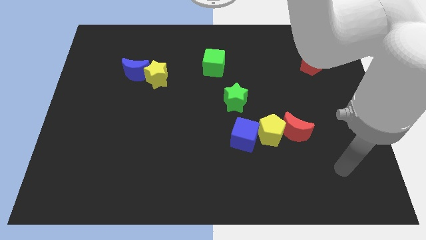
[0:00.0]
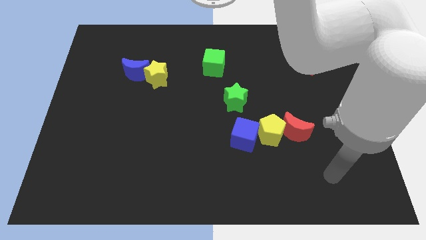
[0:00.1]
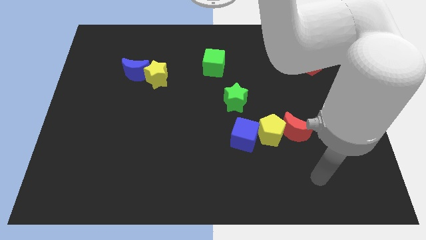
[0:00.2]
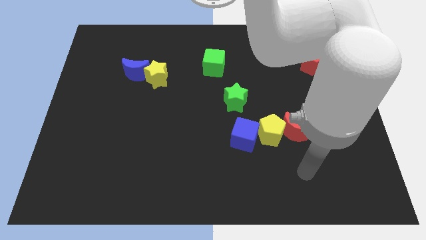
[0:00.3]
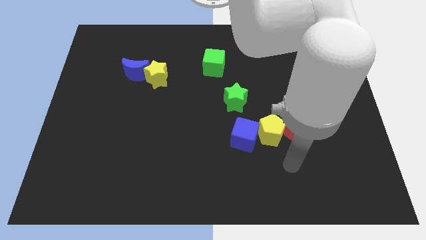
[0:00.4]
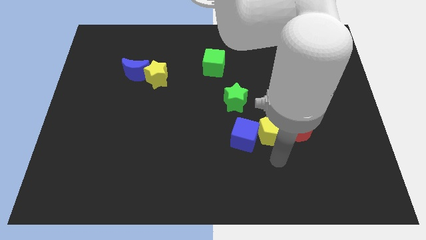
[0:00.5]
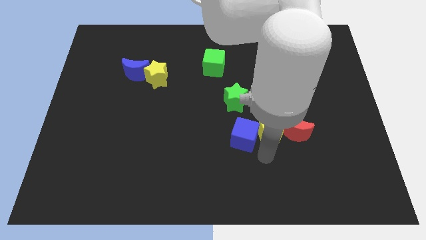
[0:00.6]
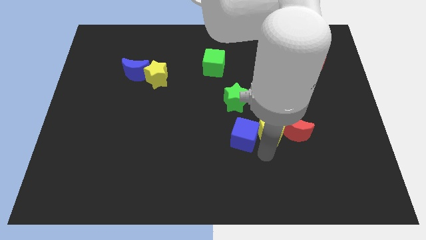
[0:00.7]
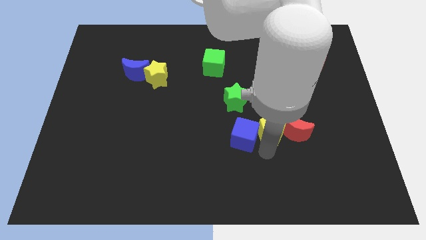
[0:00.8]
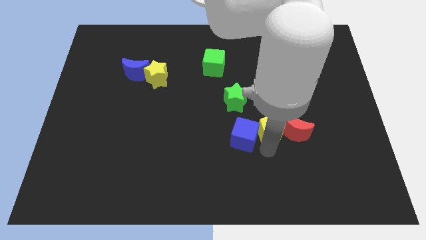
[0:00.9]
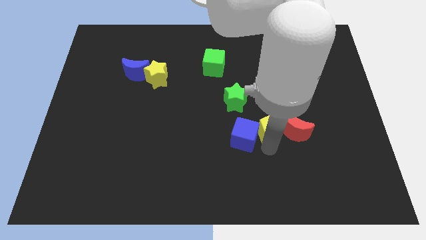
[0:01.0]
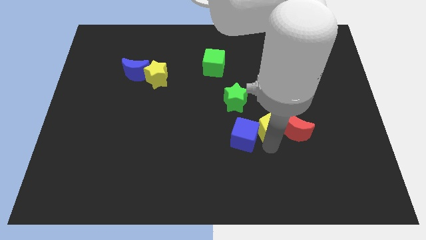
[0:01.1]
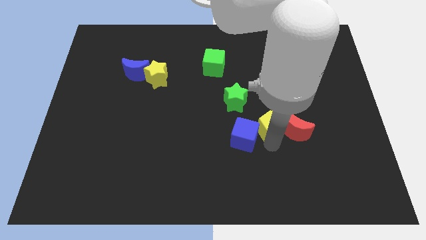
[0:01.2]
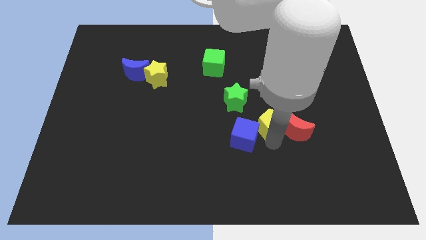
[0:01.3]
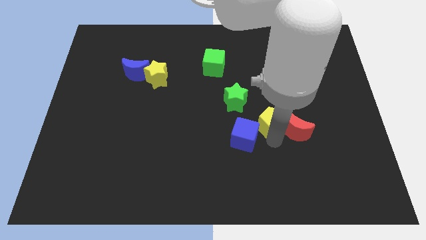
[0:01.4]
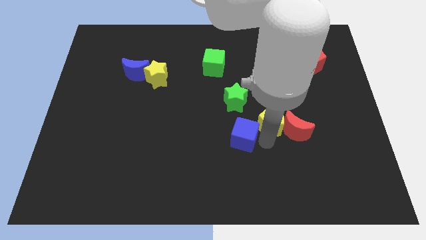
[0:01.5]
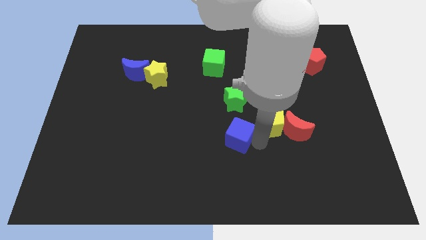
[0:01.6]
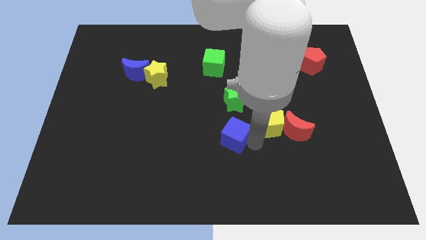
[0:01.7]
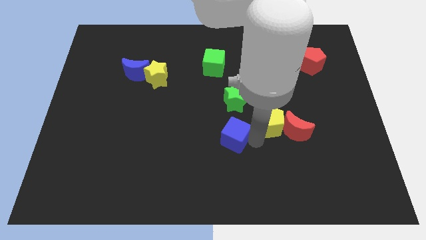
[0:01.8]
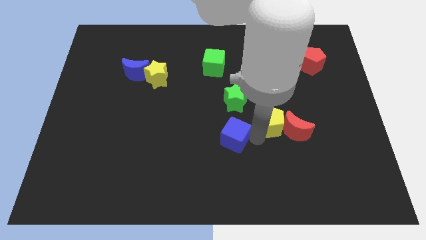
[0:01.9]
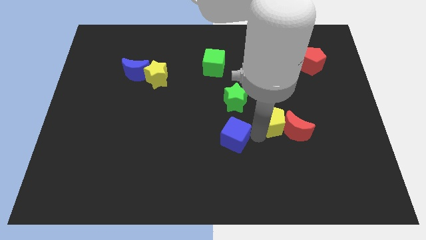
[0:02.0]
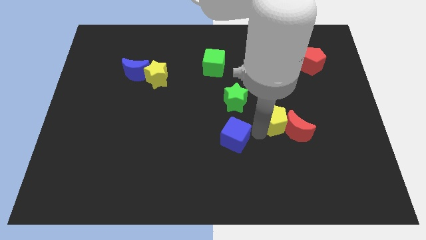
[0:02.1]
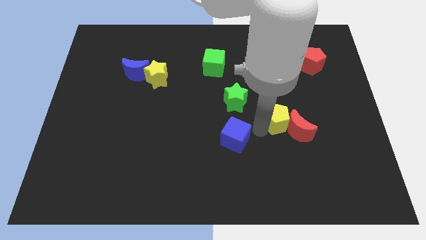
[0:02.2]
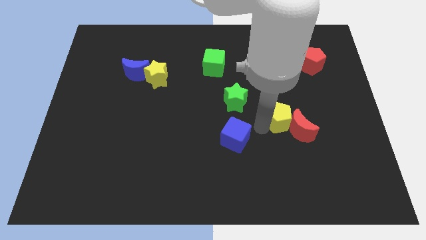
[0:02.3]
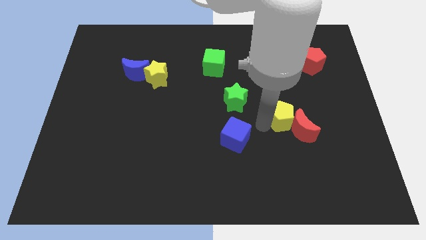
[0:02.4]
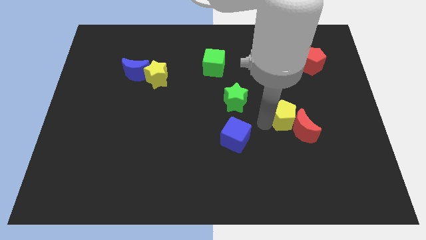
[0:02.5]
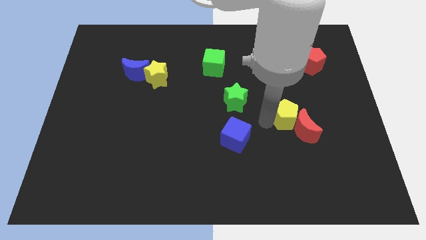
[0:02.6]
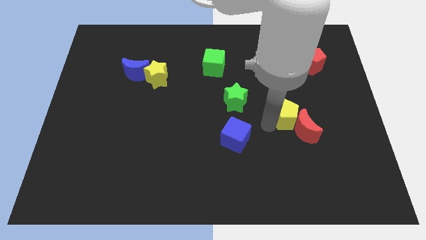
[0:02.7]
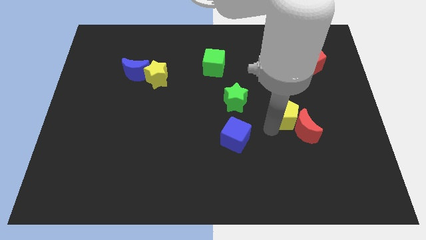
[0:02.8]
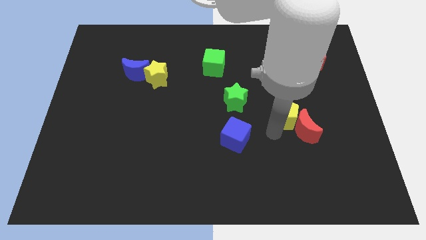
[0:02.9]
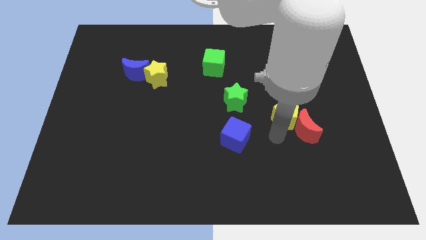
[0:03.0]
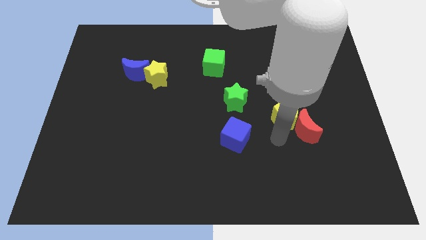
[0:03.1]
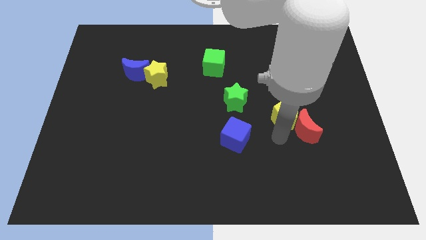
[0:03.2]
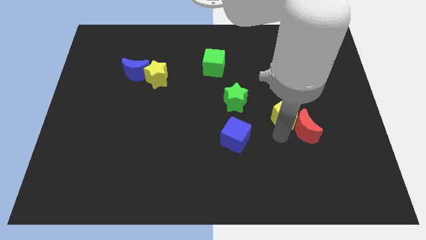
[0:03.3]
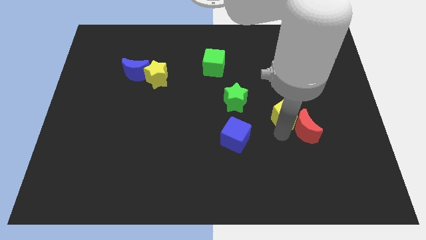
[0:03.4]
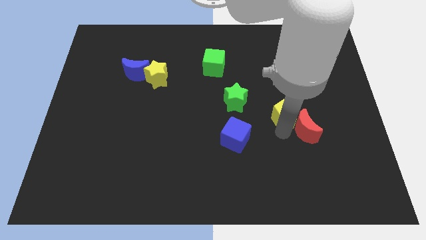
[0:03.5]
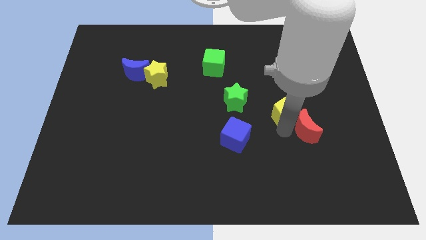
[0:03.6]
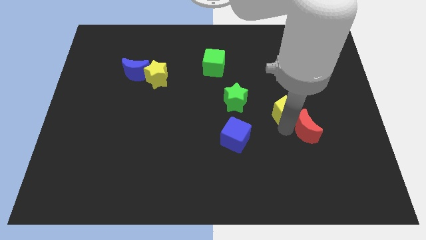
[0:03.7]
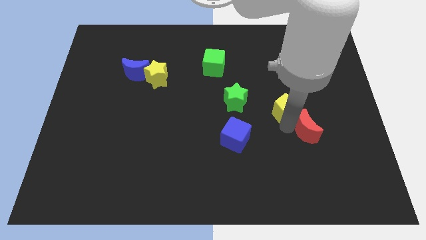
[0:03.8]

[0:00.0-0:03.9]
push the yellow pentagon up and then right a bit

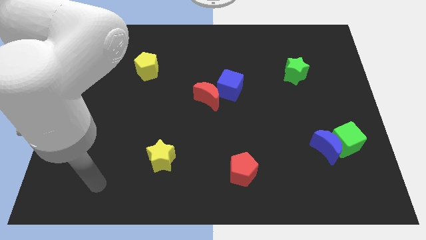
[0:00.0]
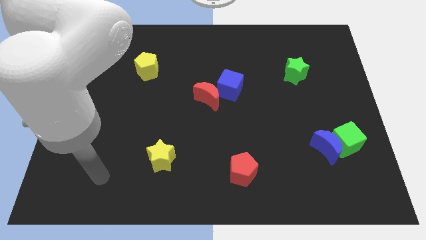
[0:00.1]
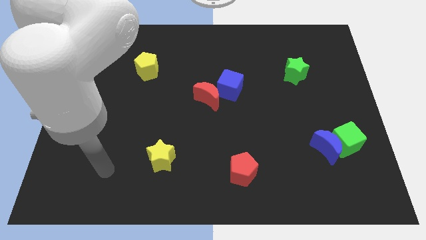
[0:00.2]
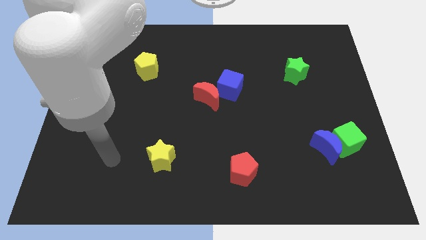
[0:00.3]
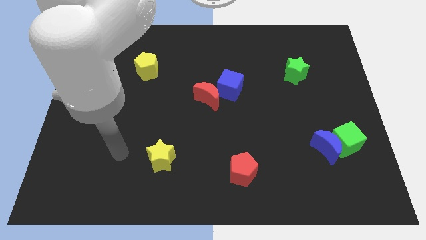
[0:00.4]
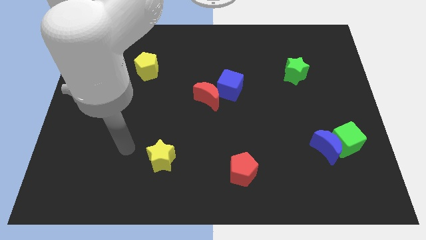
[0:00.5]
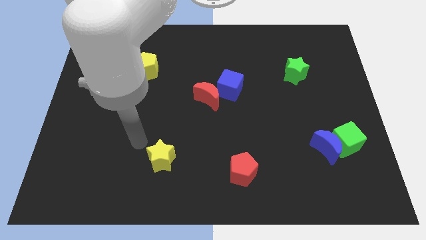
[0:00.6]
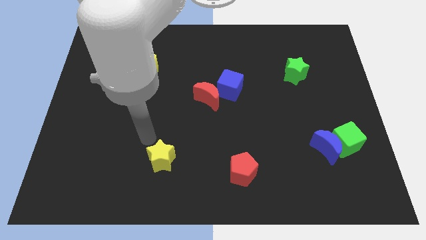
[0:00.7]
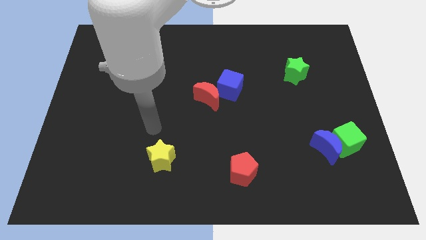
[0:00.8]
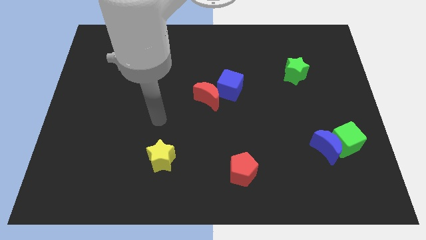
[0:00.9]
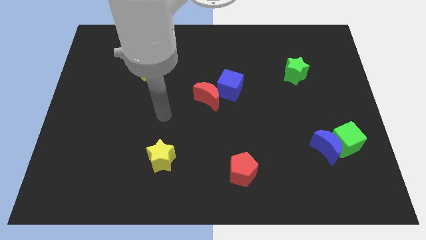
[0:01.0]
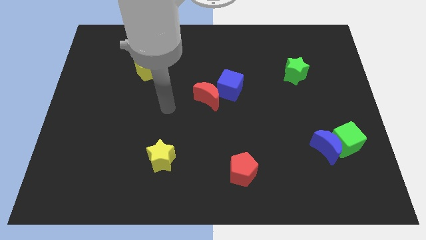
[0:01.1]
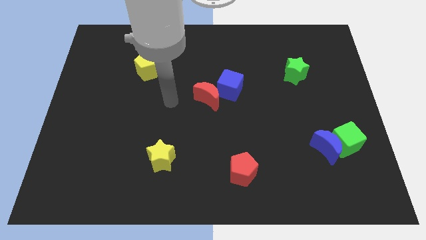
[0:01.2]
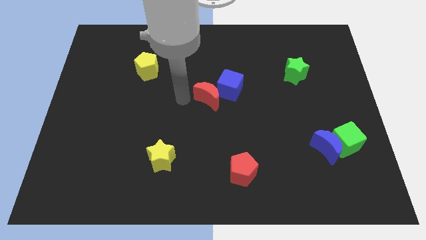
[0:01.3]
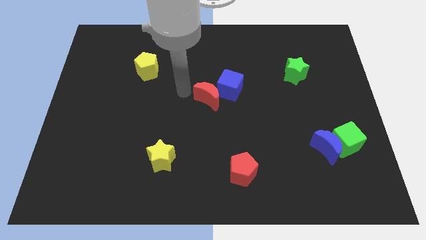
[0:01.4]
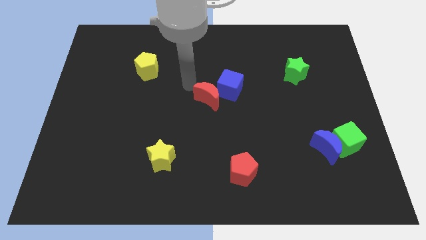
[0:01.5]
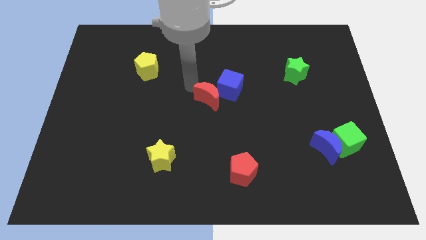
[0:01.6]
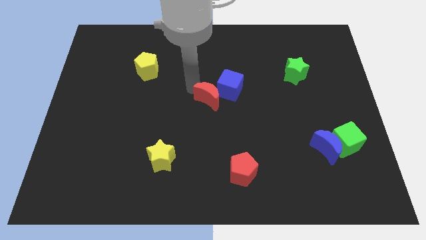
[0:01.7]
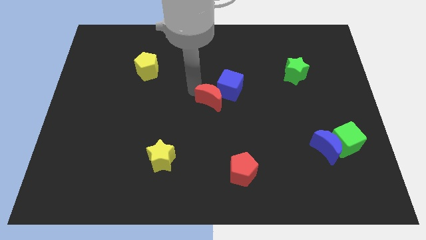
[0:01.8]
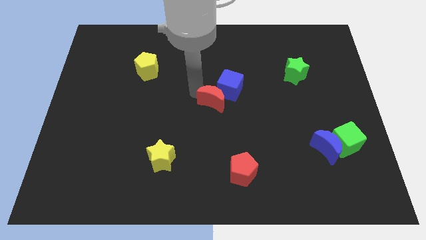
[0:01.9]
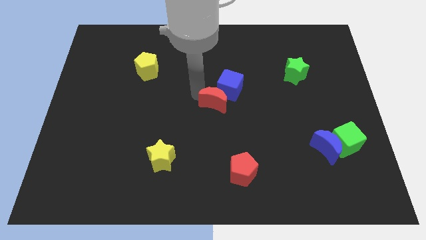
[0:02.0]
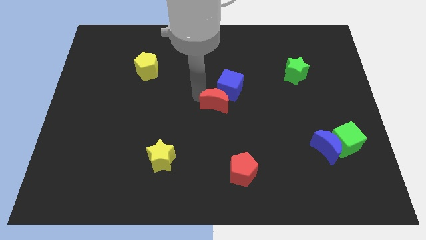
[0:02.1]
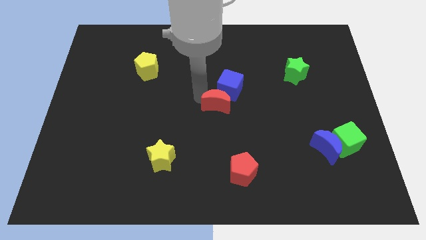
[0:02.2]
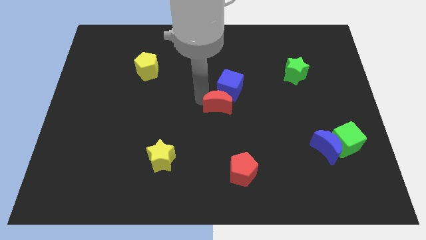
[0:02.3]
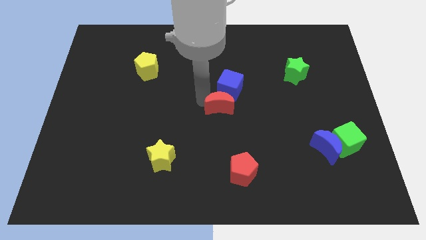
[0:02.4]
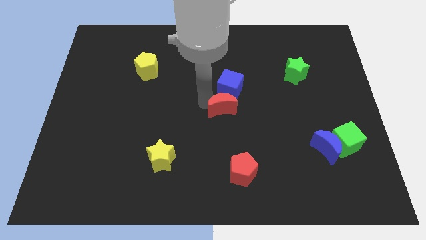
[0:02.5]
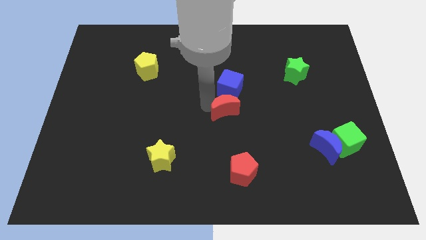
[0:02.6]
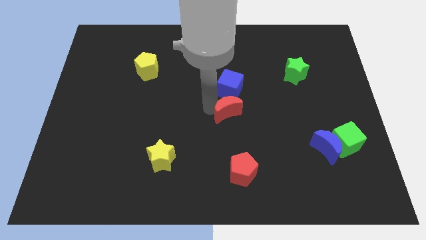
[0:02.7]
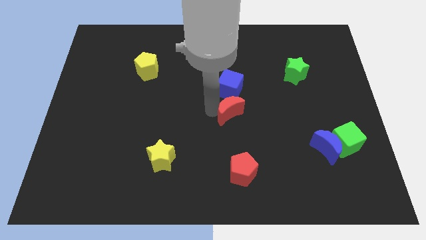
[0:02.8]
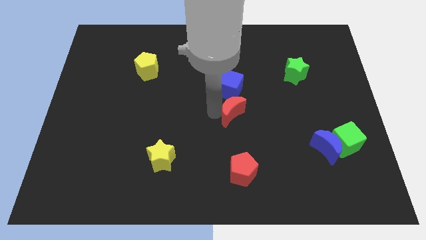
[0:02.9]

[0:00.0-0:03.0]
slide the red moon a little bit down and to the right

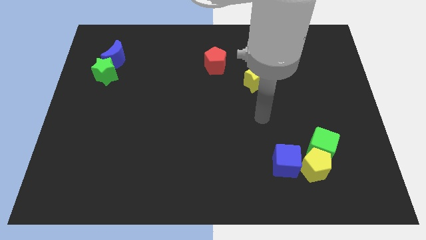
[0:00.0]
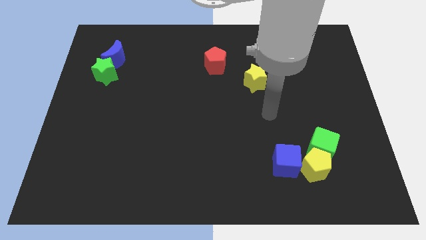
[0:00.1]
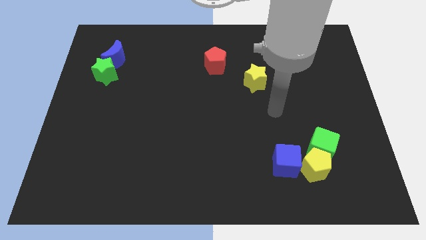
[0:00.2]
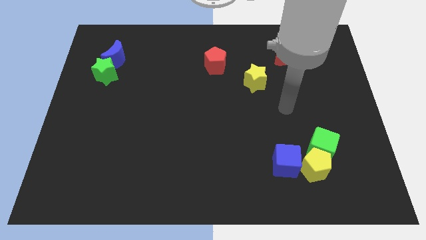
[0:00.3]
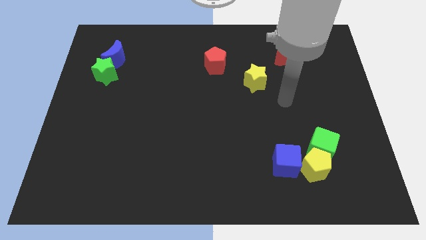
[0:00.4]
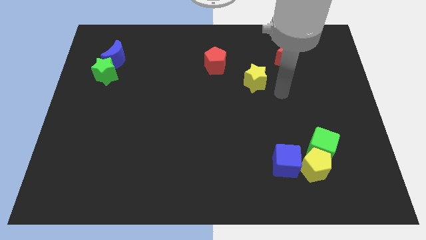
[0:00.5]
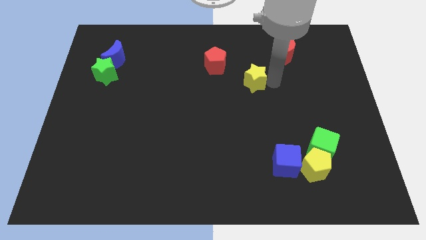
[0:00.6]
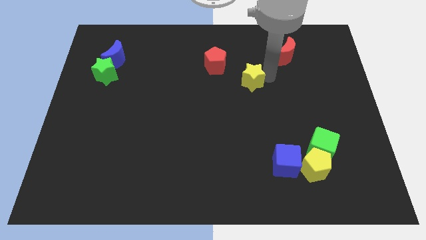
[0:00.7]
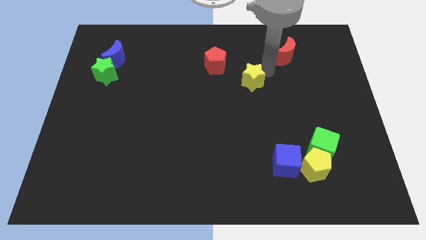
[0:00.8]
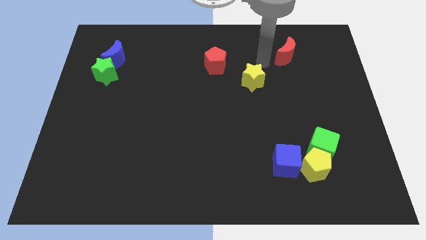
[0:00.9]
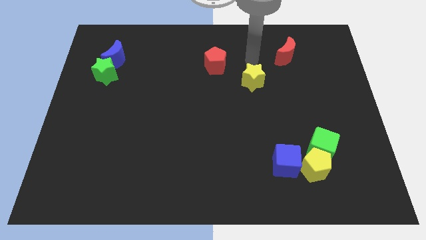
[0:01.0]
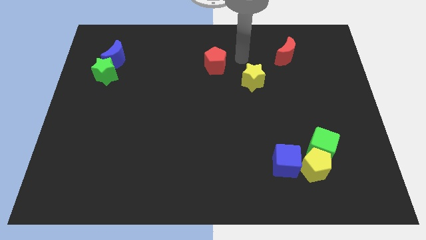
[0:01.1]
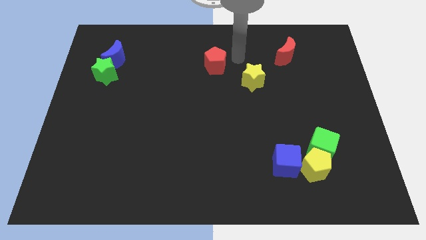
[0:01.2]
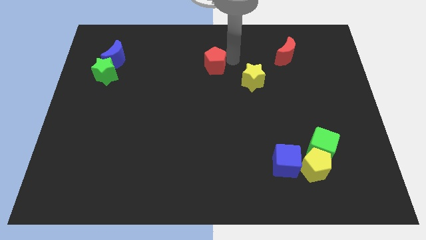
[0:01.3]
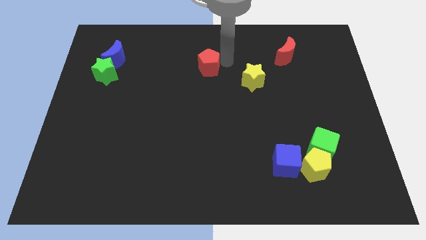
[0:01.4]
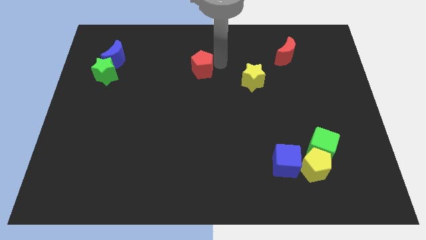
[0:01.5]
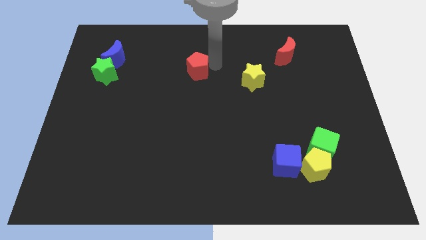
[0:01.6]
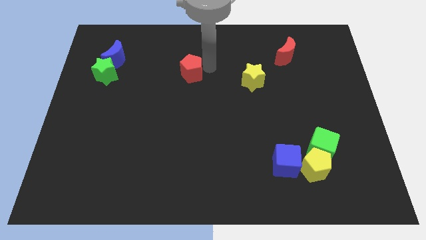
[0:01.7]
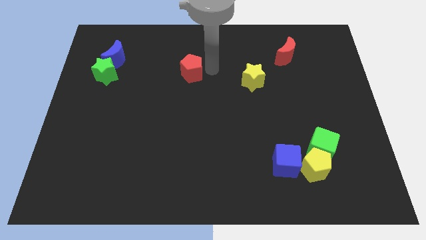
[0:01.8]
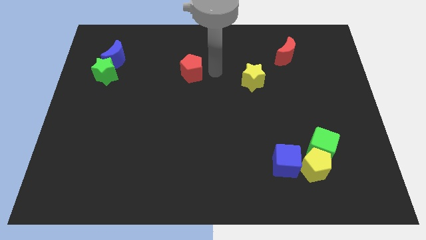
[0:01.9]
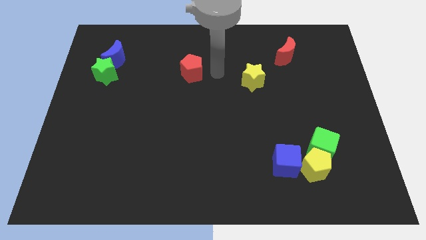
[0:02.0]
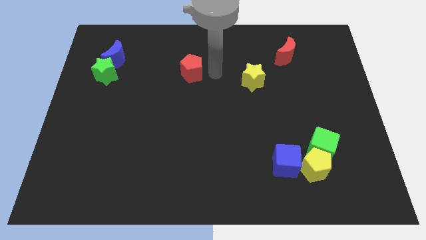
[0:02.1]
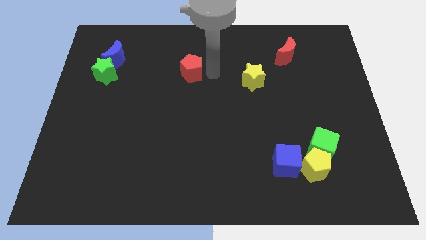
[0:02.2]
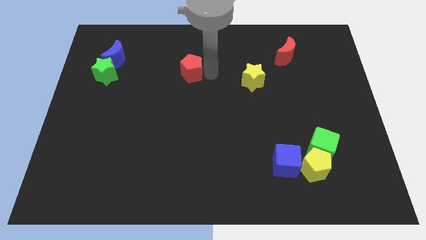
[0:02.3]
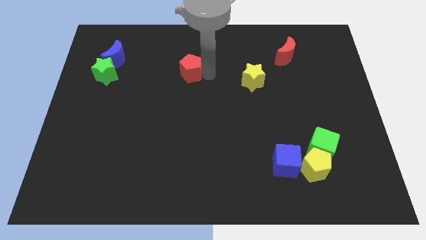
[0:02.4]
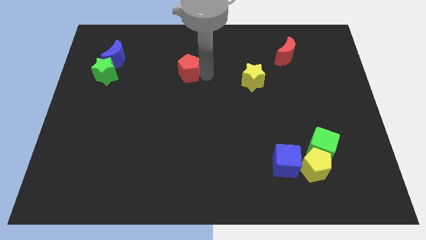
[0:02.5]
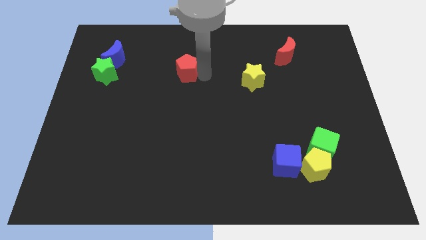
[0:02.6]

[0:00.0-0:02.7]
push the red pentagon a little bit left
